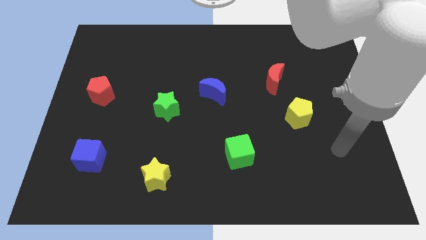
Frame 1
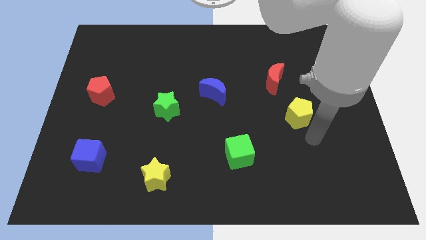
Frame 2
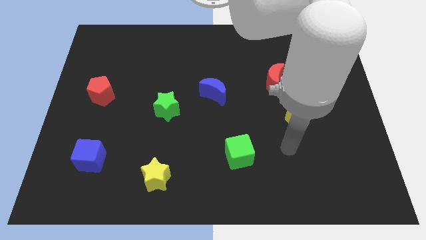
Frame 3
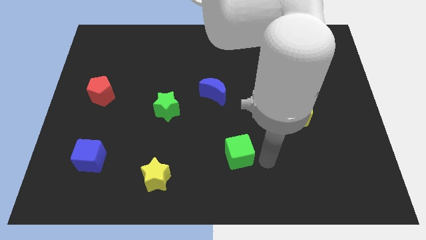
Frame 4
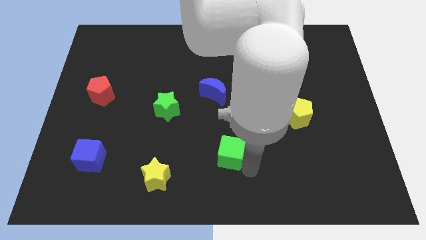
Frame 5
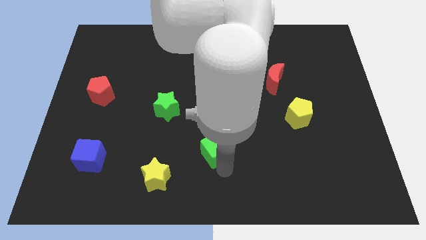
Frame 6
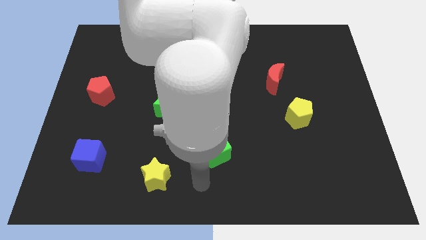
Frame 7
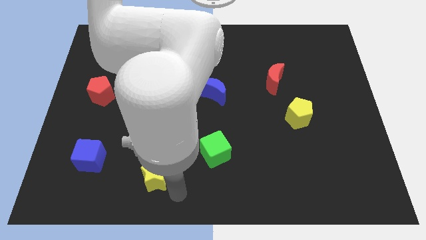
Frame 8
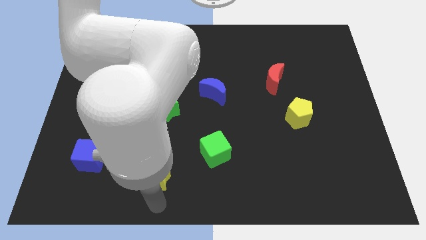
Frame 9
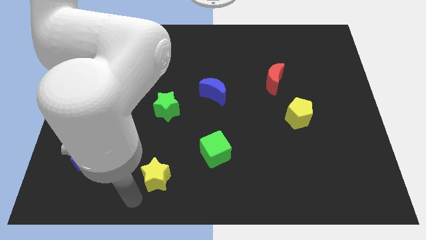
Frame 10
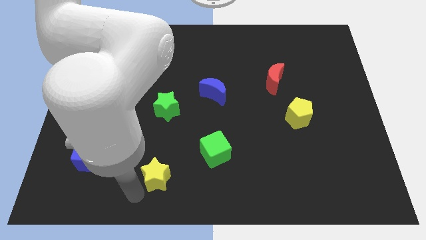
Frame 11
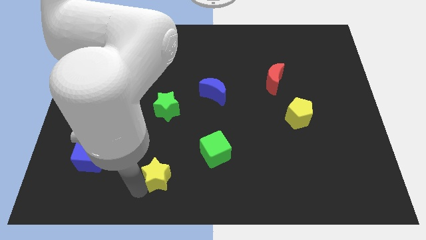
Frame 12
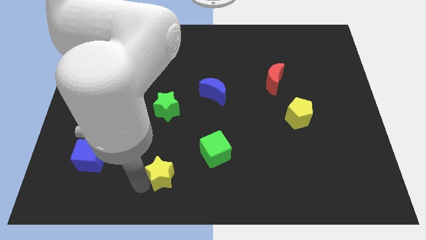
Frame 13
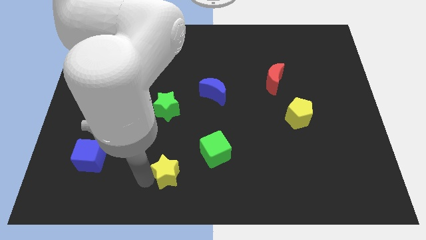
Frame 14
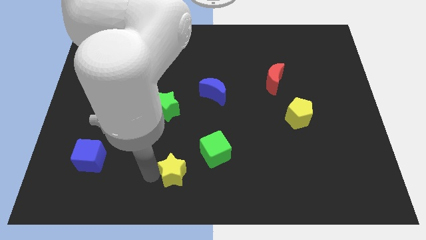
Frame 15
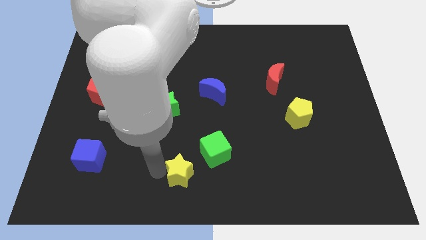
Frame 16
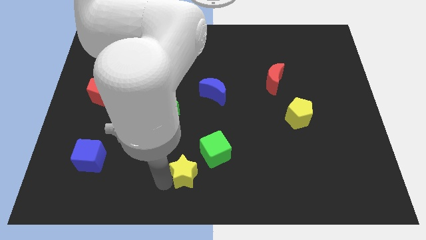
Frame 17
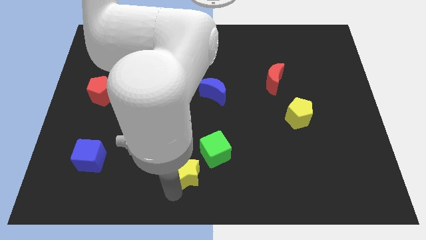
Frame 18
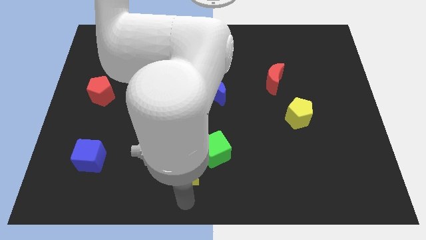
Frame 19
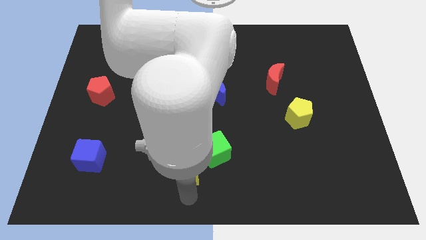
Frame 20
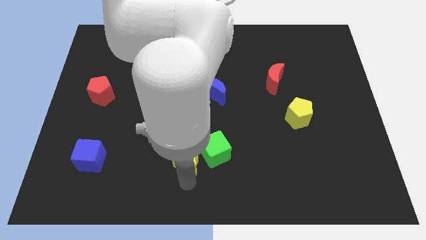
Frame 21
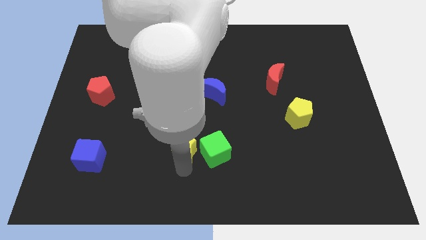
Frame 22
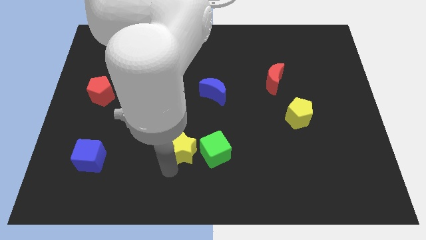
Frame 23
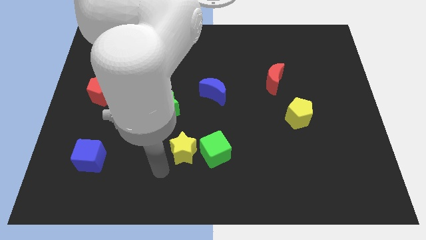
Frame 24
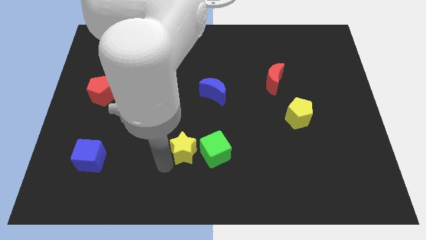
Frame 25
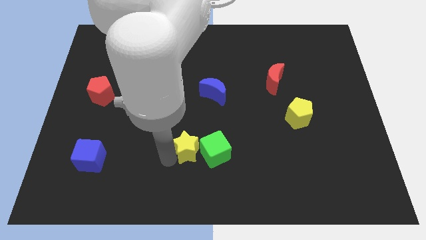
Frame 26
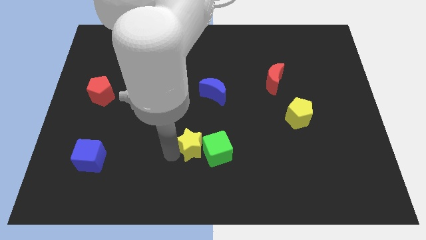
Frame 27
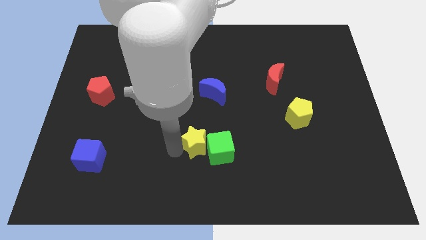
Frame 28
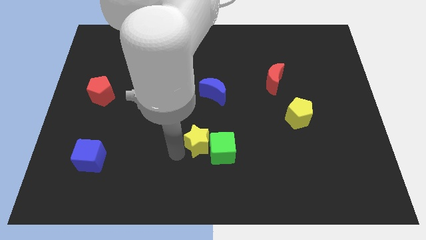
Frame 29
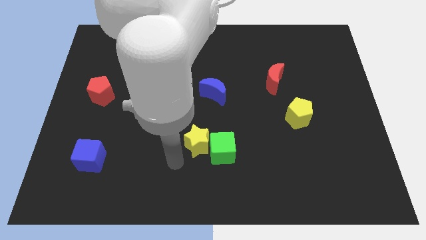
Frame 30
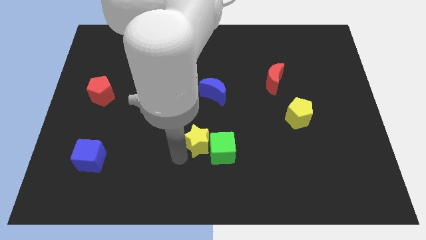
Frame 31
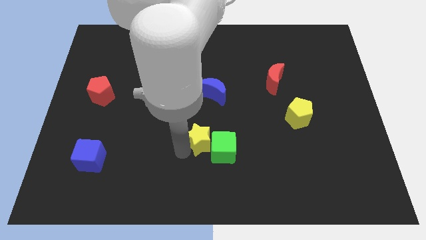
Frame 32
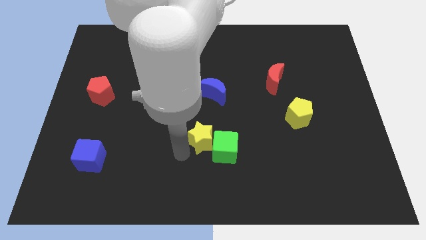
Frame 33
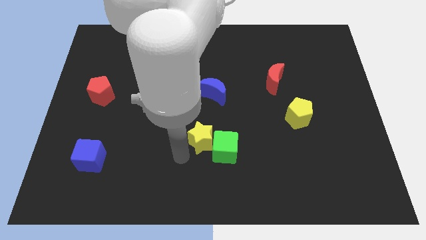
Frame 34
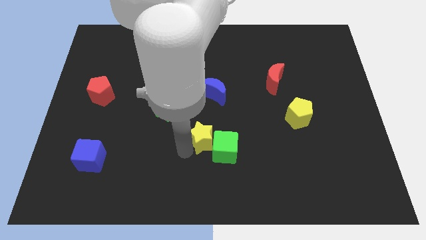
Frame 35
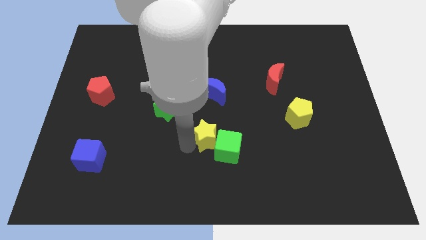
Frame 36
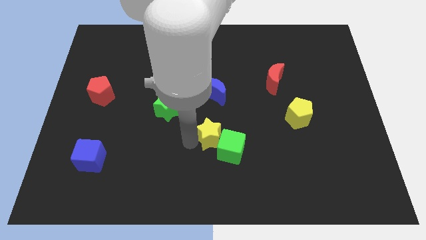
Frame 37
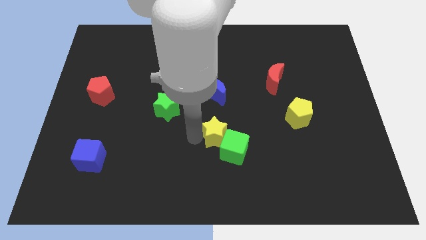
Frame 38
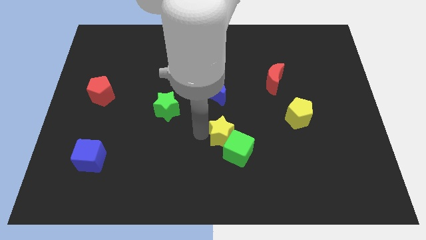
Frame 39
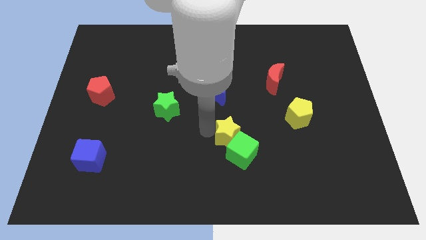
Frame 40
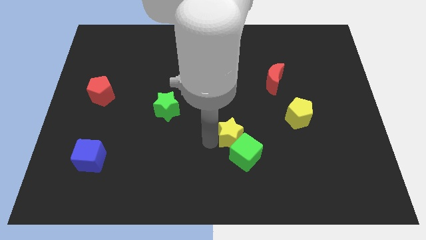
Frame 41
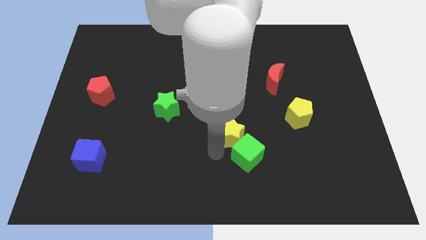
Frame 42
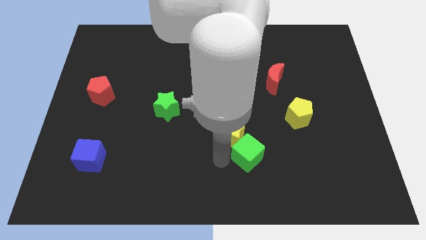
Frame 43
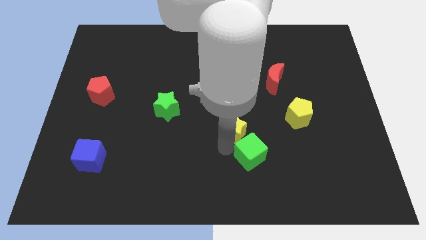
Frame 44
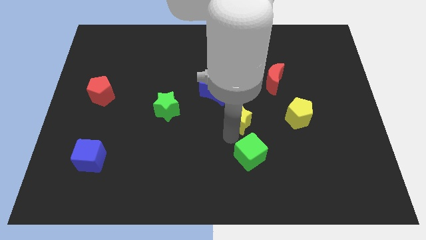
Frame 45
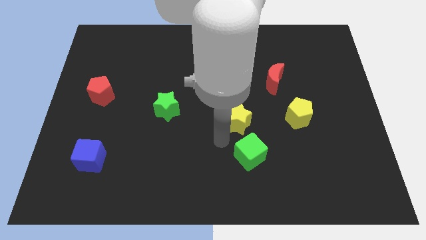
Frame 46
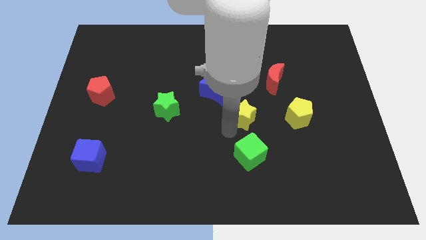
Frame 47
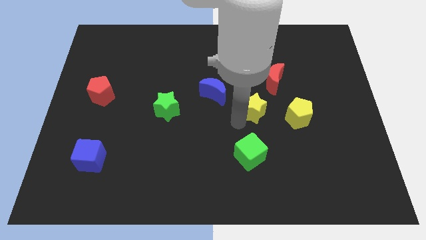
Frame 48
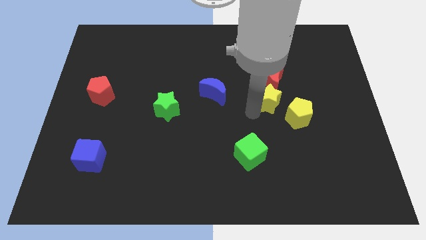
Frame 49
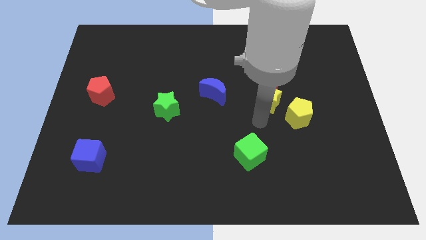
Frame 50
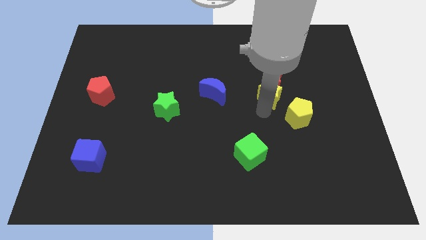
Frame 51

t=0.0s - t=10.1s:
put the yellow star to the red moon

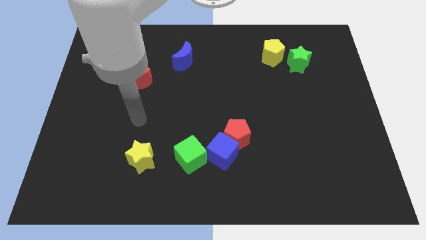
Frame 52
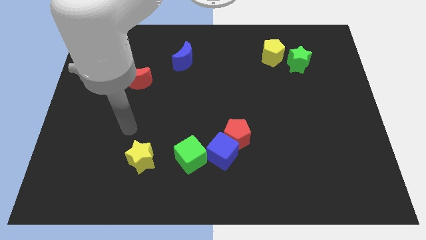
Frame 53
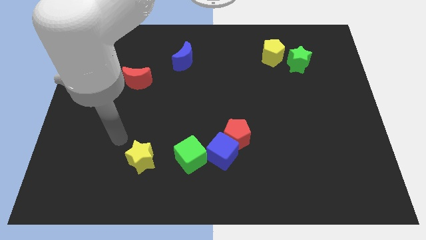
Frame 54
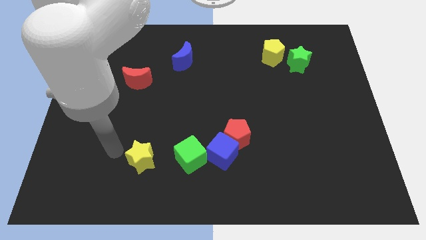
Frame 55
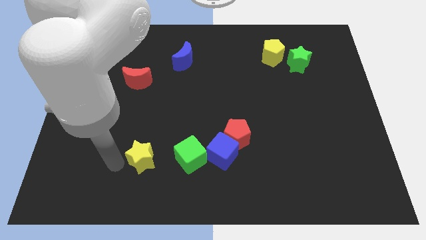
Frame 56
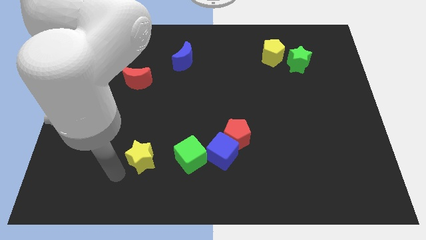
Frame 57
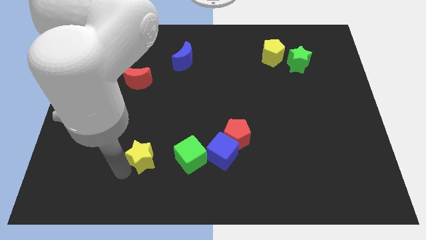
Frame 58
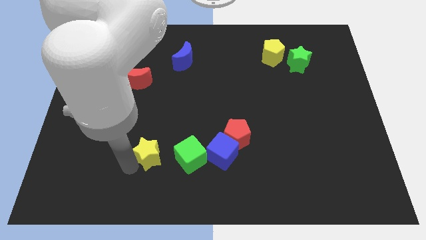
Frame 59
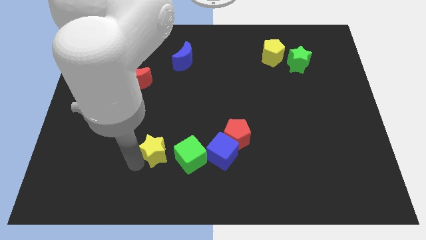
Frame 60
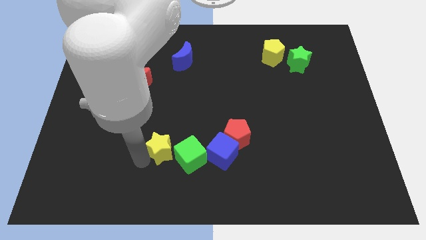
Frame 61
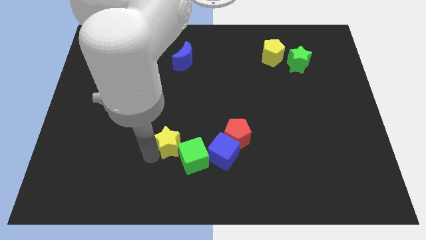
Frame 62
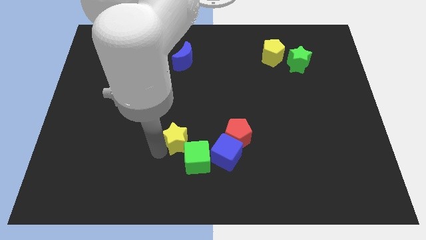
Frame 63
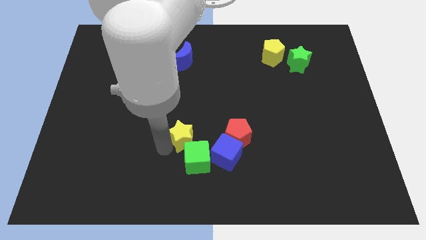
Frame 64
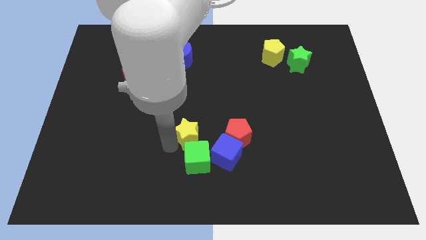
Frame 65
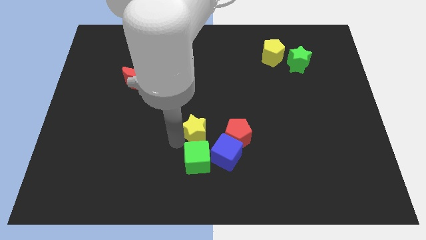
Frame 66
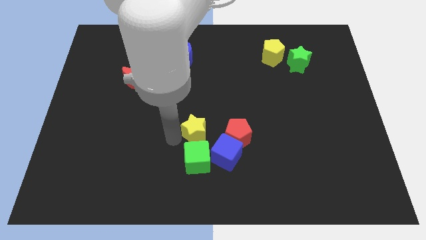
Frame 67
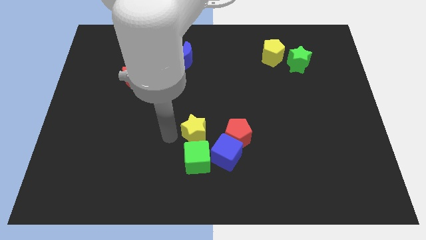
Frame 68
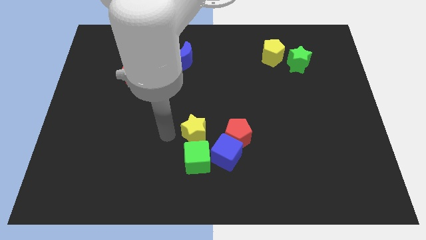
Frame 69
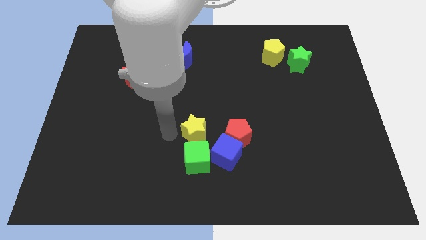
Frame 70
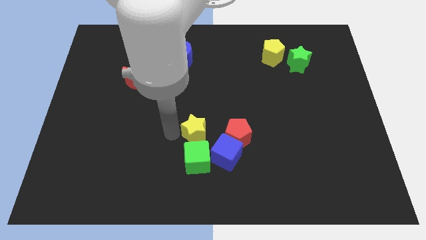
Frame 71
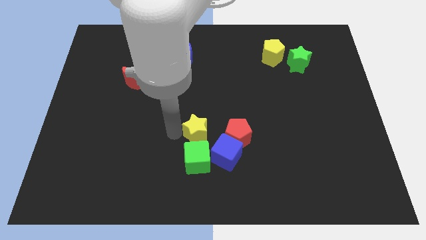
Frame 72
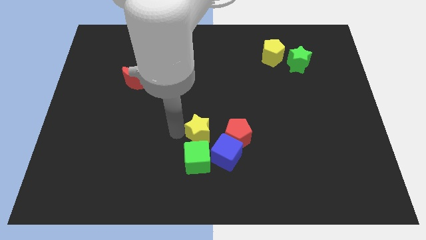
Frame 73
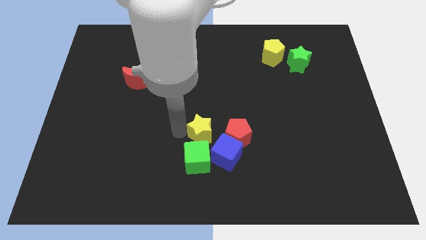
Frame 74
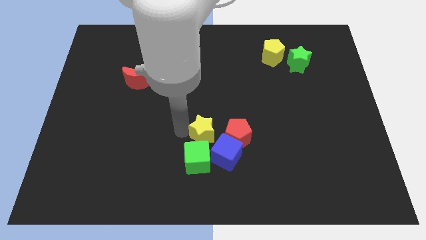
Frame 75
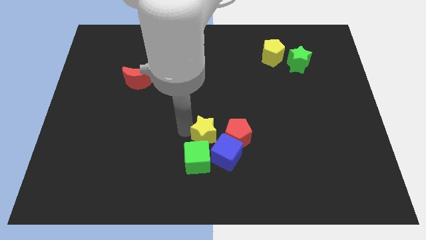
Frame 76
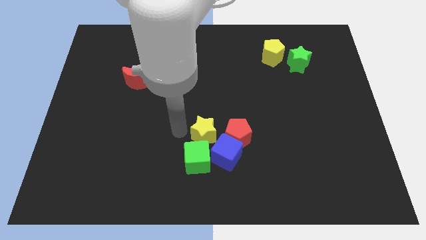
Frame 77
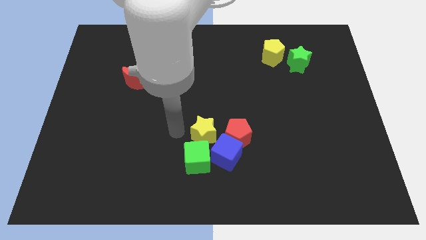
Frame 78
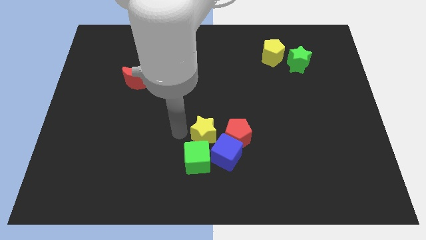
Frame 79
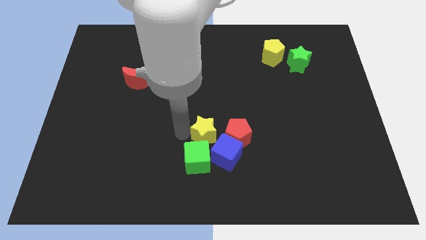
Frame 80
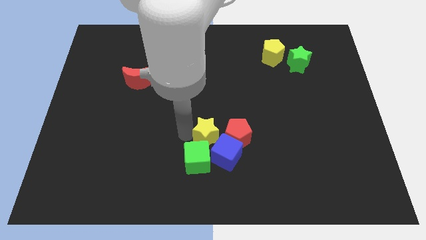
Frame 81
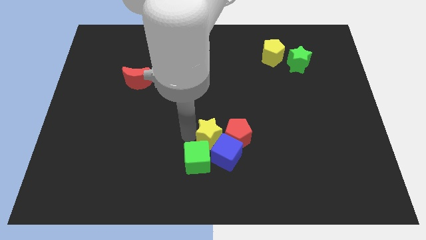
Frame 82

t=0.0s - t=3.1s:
put the yellow star close to the red pentagon

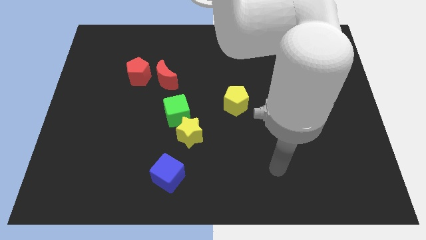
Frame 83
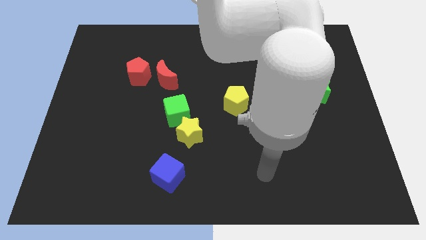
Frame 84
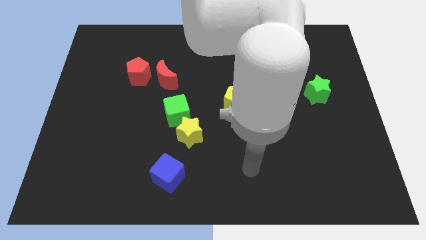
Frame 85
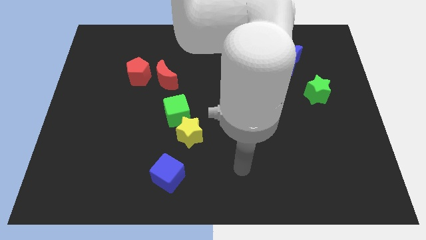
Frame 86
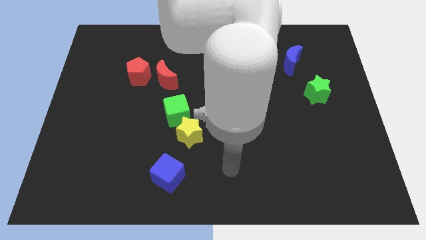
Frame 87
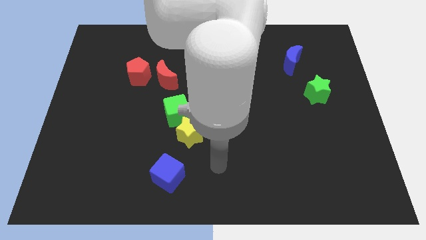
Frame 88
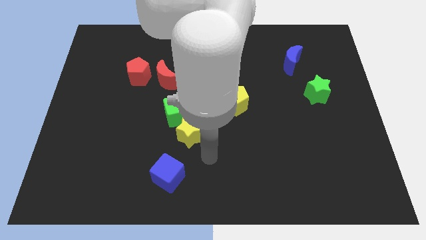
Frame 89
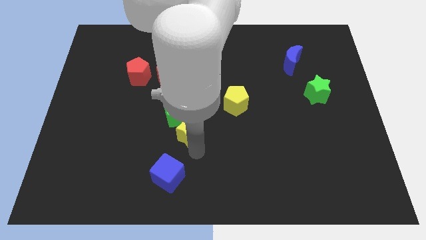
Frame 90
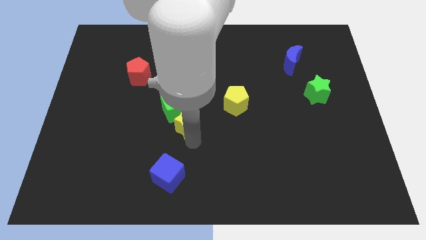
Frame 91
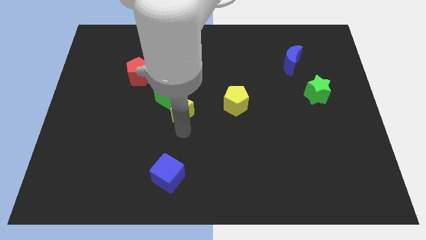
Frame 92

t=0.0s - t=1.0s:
push the green cube to the red moon
